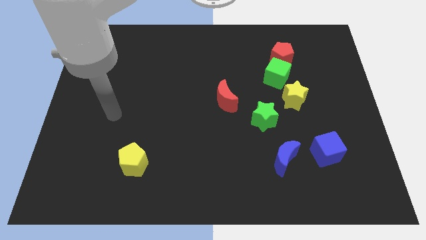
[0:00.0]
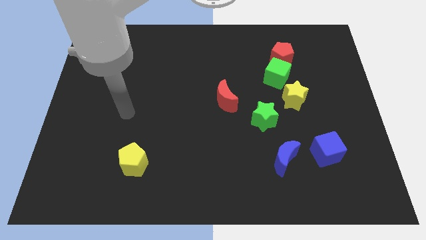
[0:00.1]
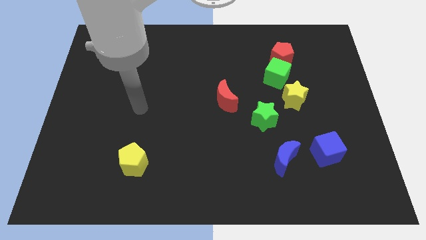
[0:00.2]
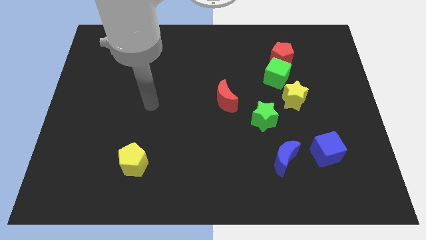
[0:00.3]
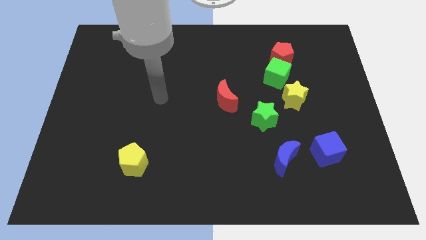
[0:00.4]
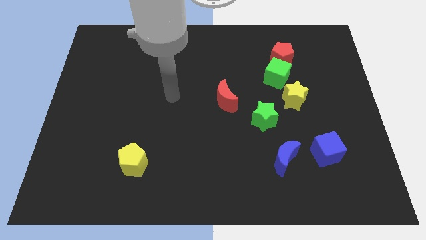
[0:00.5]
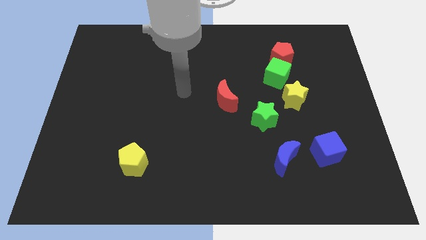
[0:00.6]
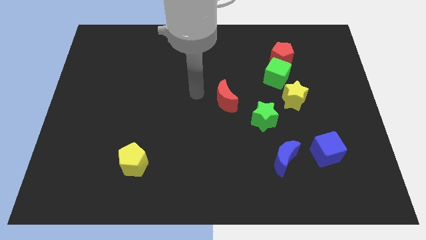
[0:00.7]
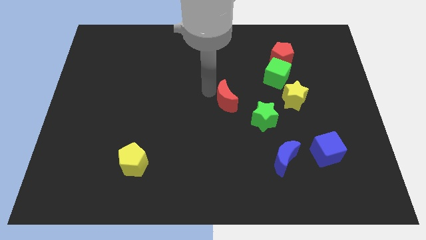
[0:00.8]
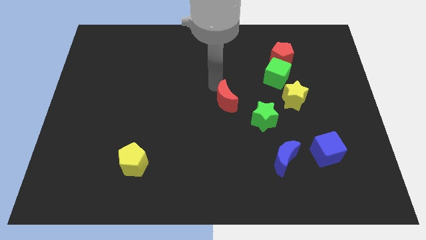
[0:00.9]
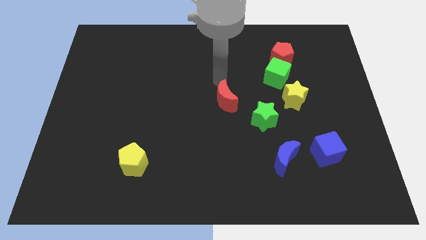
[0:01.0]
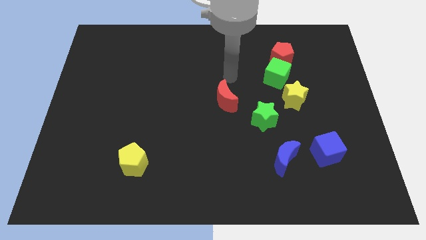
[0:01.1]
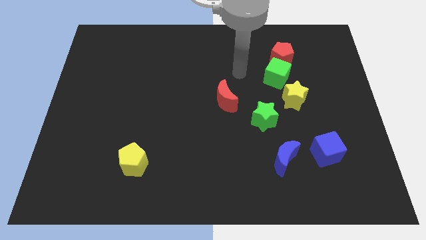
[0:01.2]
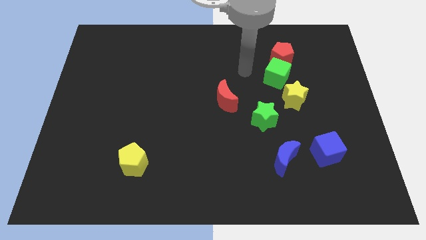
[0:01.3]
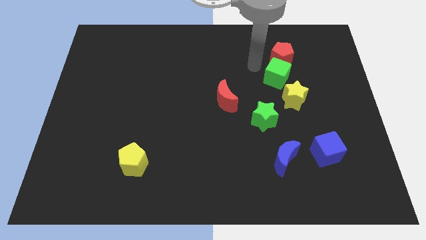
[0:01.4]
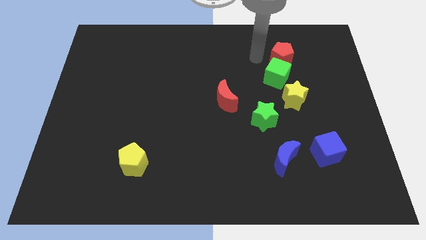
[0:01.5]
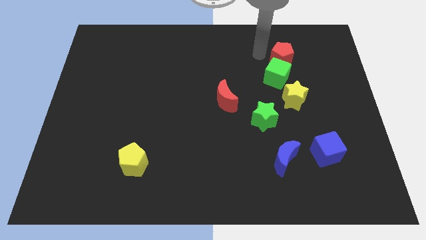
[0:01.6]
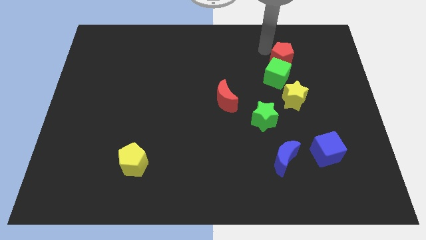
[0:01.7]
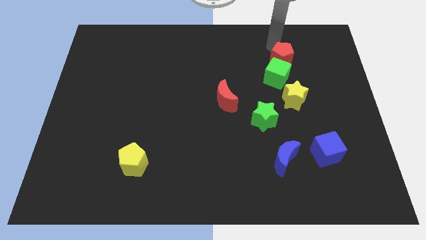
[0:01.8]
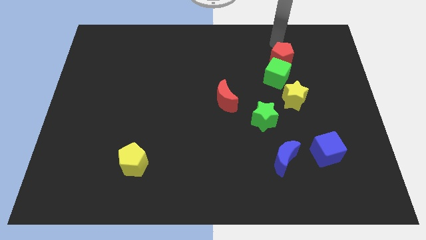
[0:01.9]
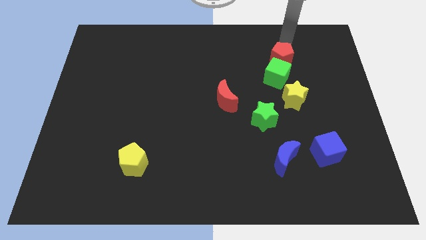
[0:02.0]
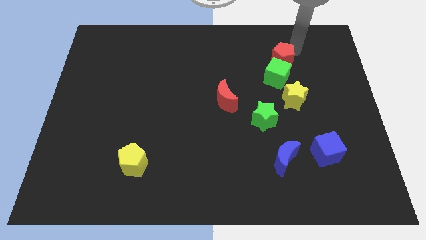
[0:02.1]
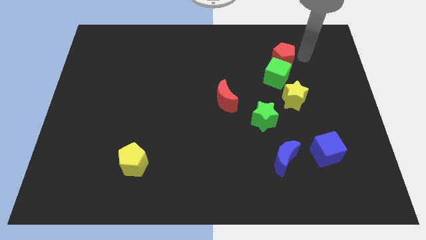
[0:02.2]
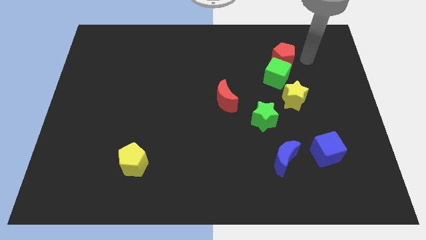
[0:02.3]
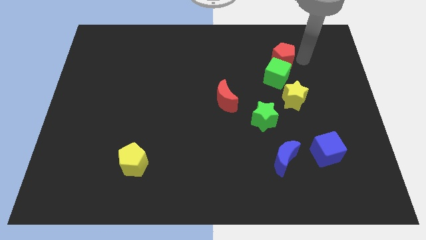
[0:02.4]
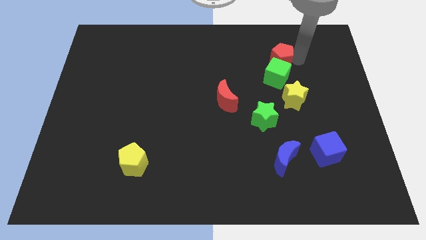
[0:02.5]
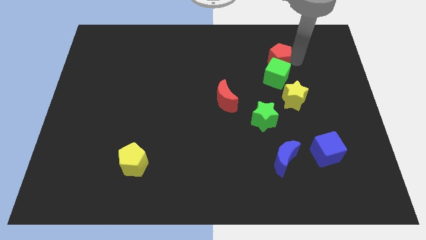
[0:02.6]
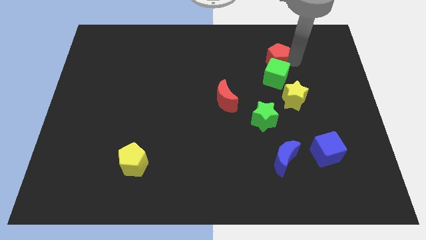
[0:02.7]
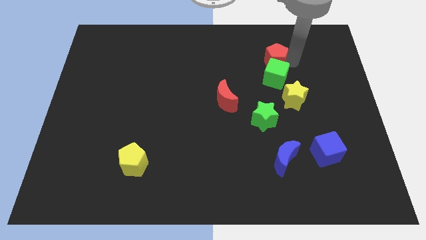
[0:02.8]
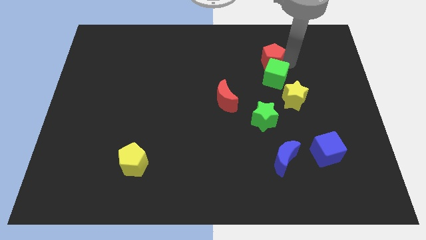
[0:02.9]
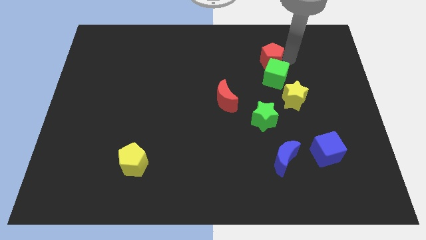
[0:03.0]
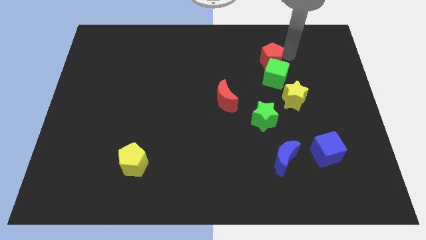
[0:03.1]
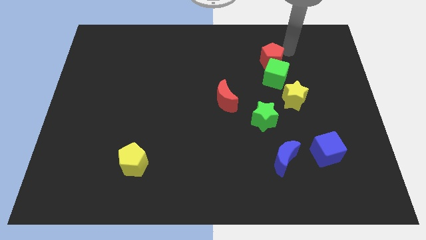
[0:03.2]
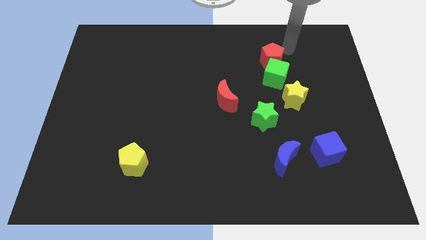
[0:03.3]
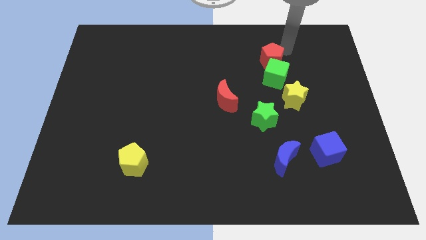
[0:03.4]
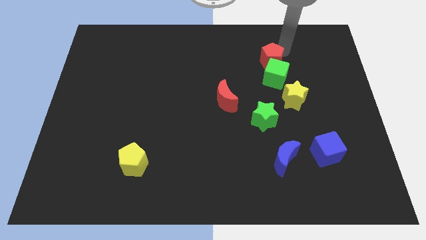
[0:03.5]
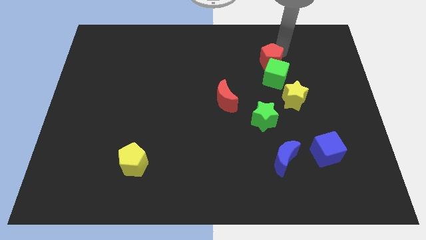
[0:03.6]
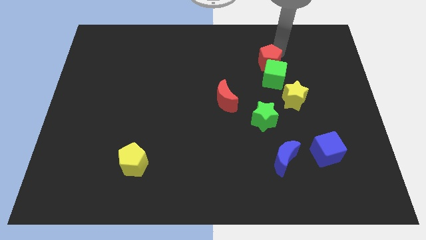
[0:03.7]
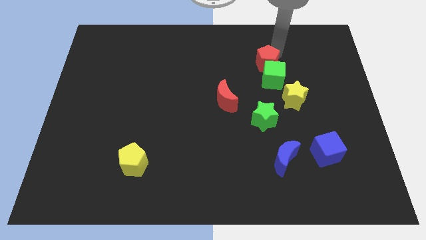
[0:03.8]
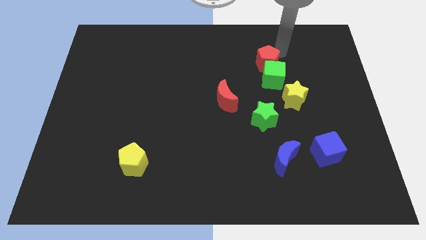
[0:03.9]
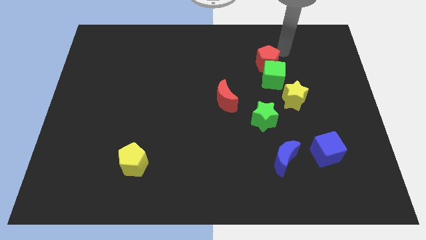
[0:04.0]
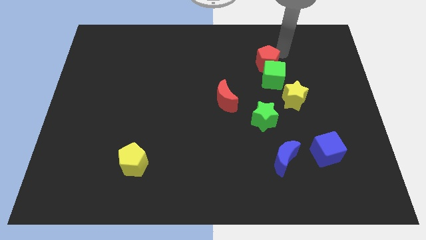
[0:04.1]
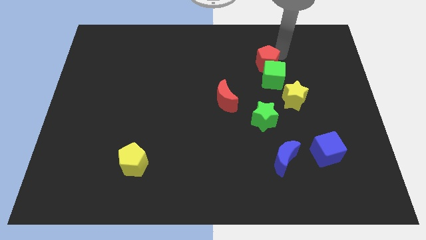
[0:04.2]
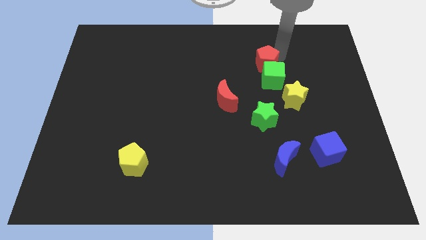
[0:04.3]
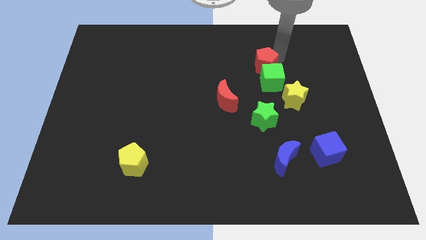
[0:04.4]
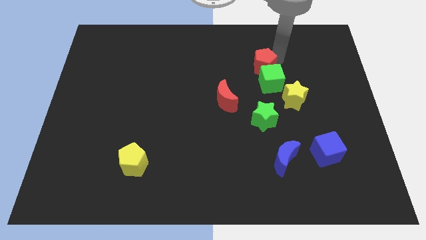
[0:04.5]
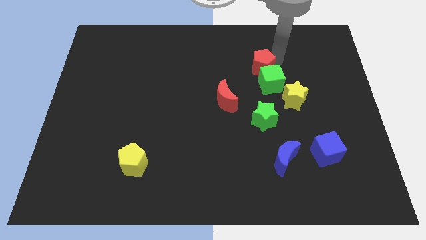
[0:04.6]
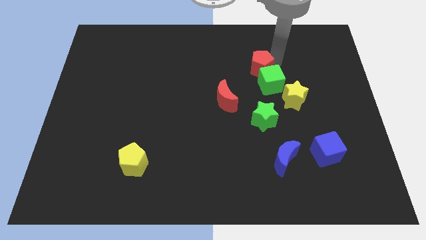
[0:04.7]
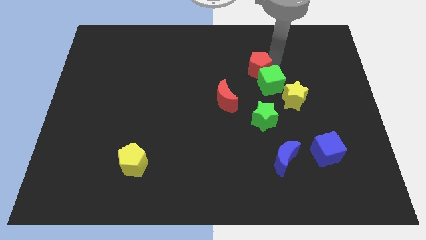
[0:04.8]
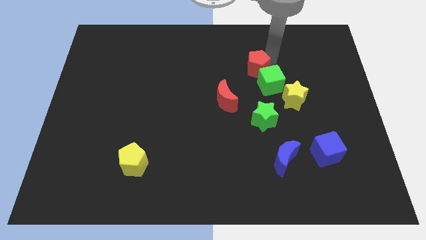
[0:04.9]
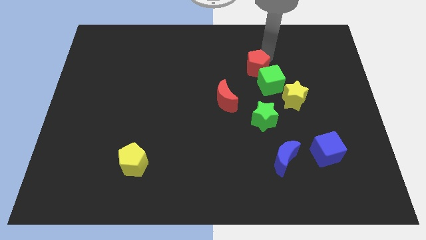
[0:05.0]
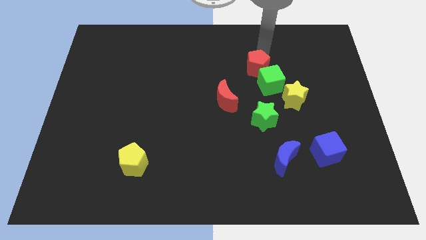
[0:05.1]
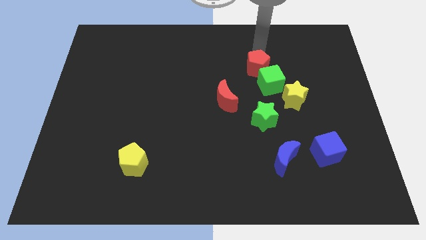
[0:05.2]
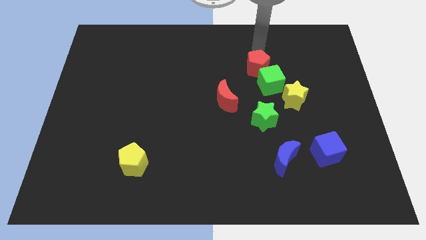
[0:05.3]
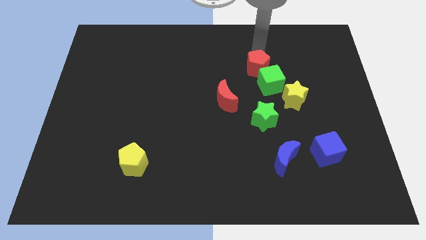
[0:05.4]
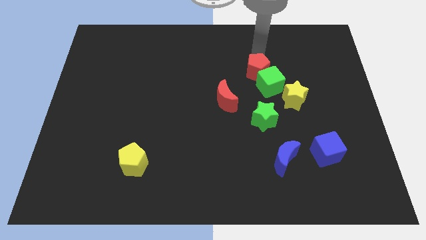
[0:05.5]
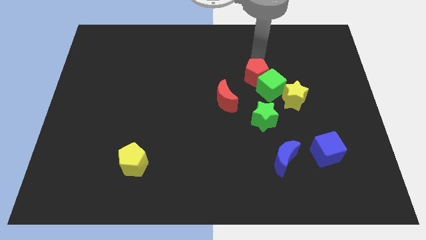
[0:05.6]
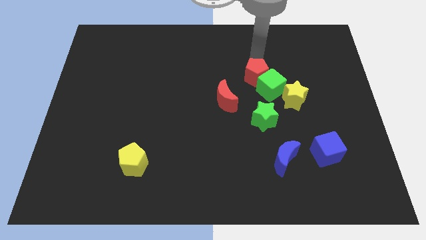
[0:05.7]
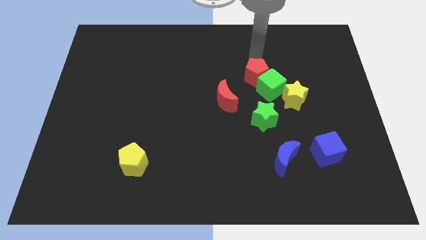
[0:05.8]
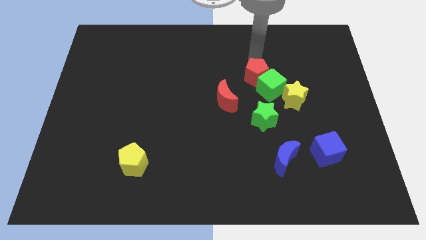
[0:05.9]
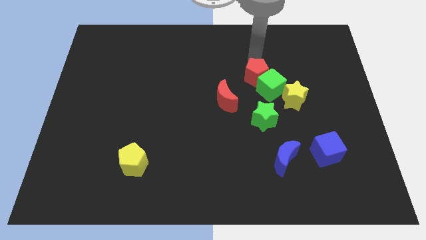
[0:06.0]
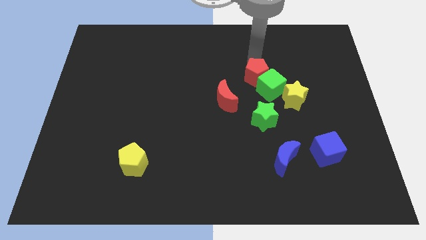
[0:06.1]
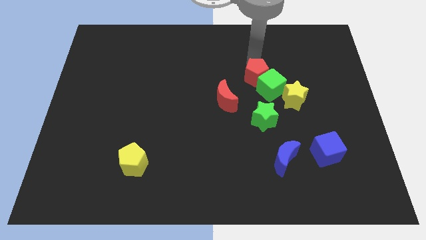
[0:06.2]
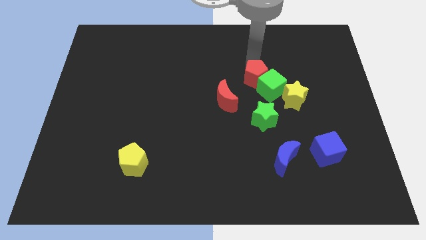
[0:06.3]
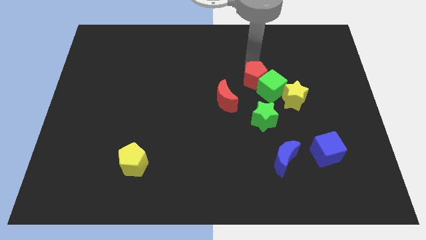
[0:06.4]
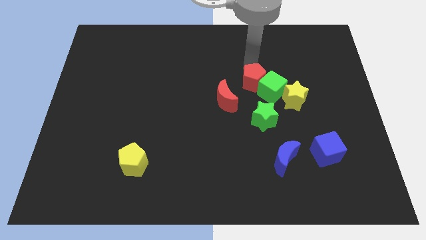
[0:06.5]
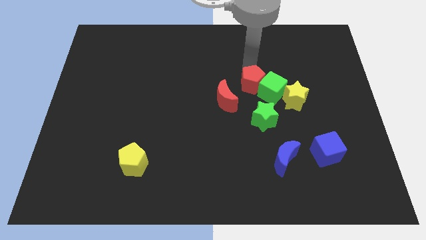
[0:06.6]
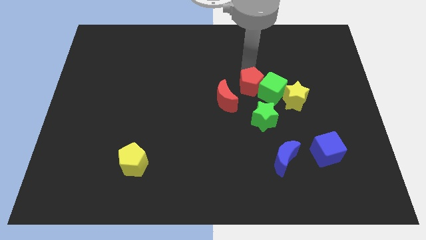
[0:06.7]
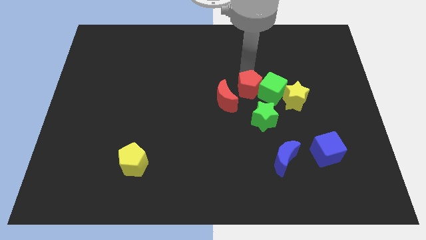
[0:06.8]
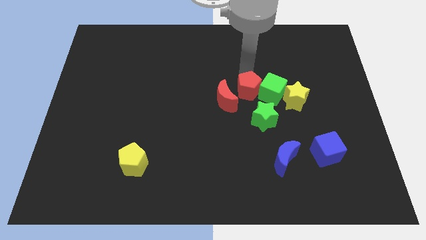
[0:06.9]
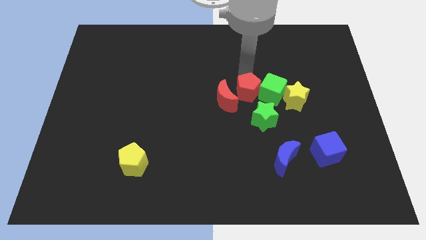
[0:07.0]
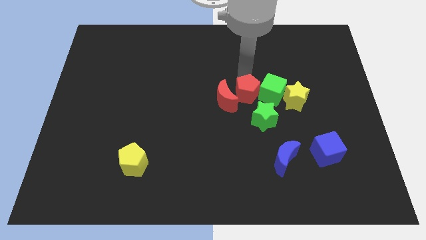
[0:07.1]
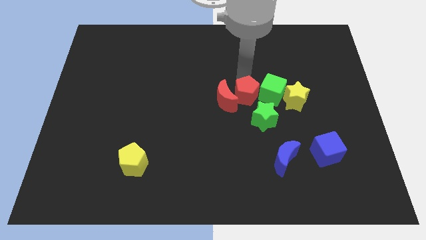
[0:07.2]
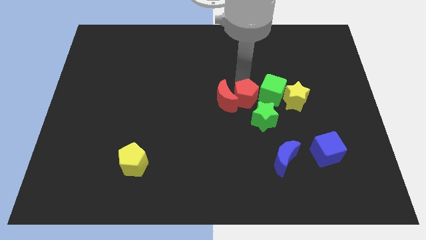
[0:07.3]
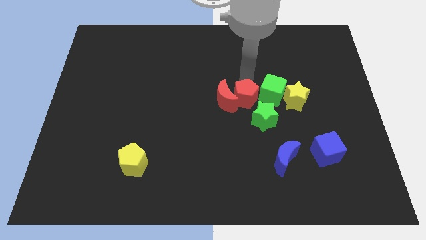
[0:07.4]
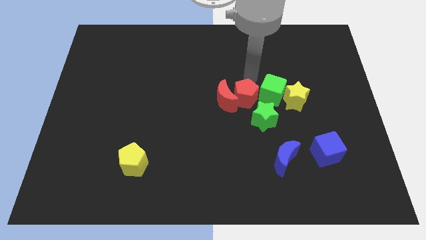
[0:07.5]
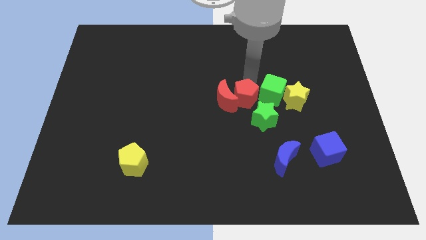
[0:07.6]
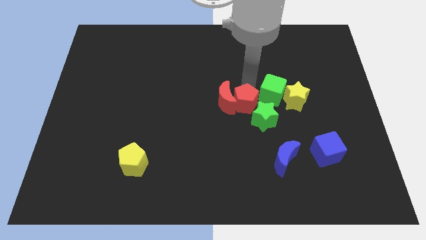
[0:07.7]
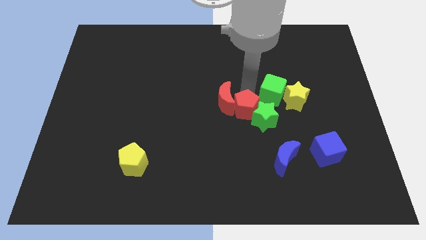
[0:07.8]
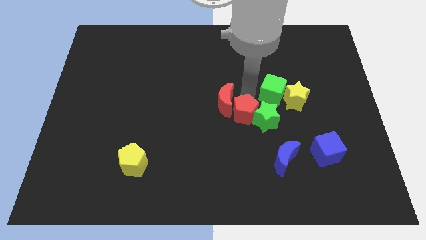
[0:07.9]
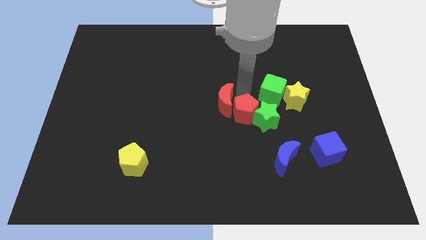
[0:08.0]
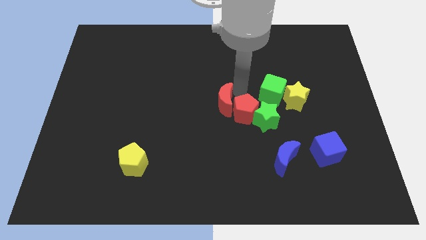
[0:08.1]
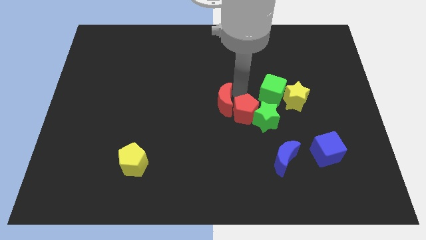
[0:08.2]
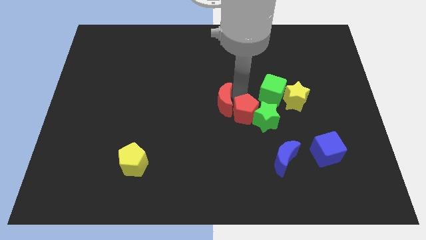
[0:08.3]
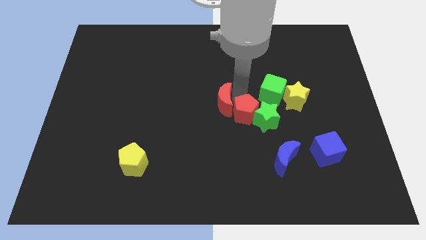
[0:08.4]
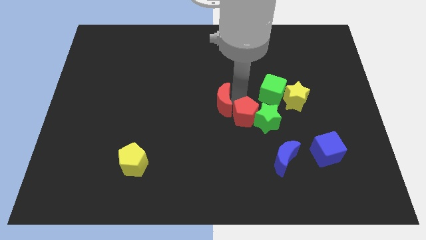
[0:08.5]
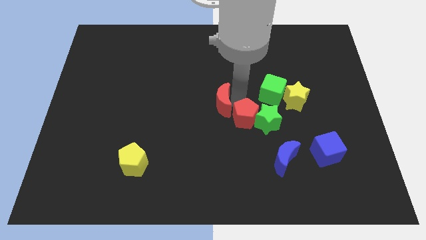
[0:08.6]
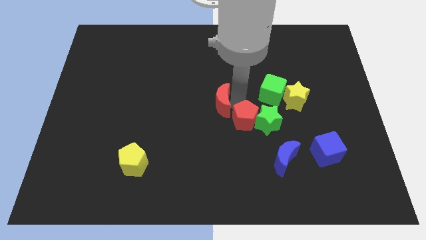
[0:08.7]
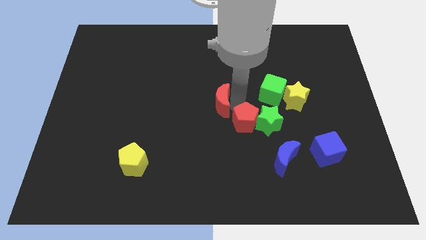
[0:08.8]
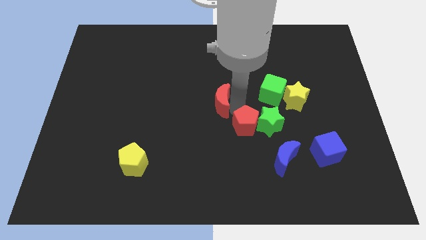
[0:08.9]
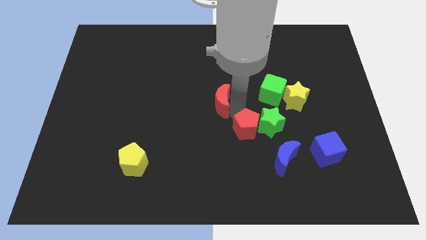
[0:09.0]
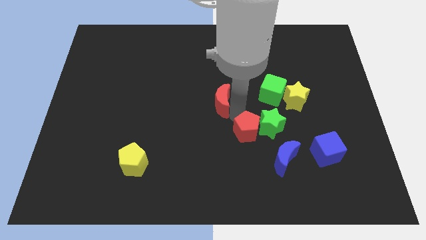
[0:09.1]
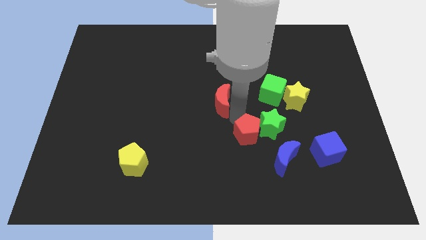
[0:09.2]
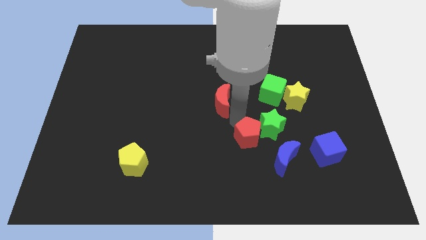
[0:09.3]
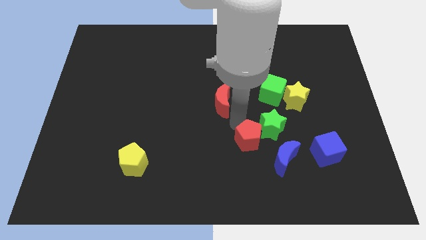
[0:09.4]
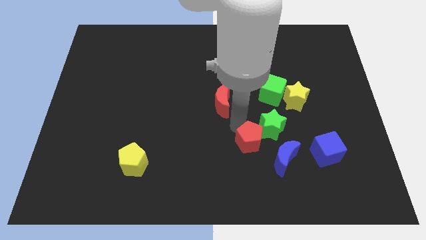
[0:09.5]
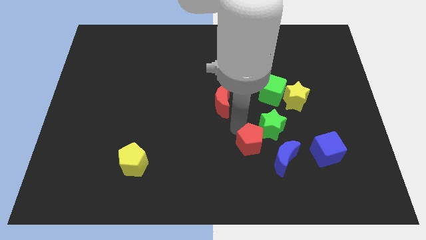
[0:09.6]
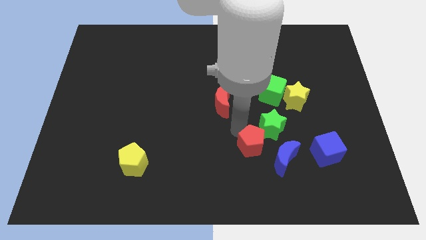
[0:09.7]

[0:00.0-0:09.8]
put the red pentagon to the bottom of the green star
